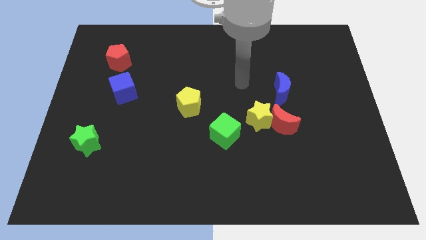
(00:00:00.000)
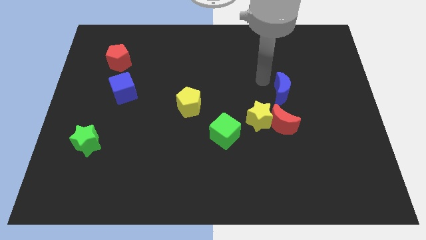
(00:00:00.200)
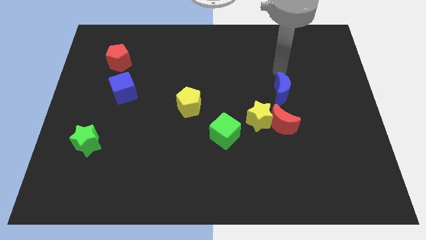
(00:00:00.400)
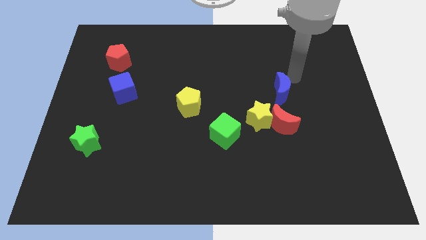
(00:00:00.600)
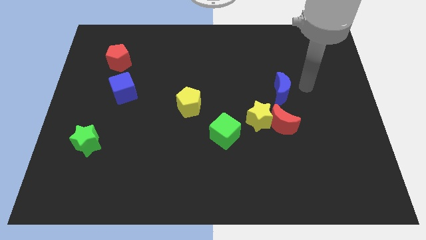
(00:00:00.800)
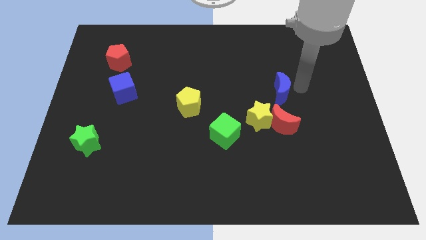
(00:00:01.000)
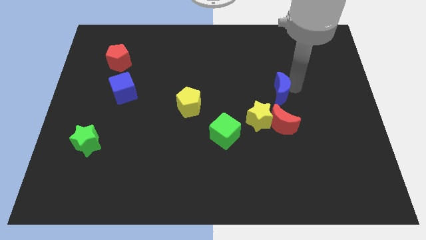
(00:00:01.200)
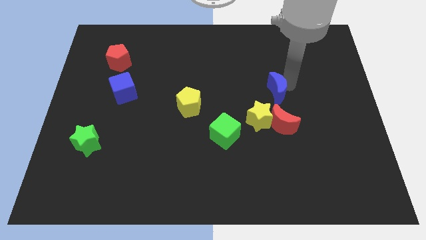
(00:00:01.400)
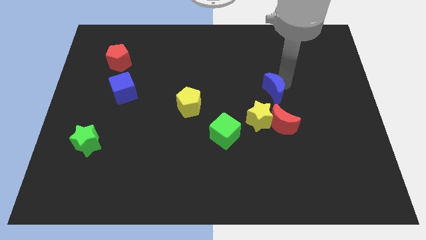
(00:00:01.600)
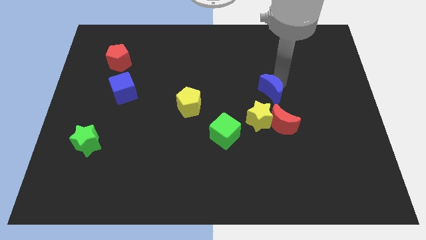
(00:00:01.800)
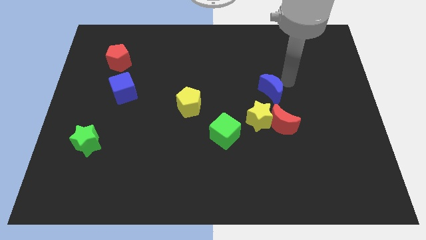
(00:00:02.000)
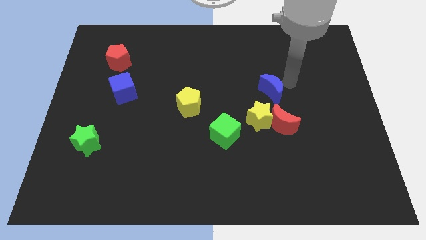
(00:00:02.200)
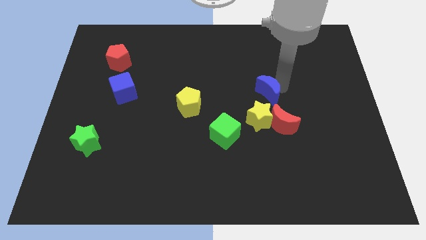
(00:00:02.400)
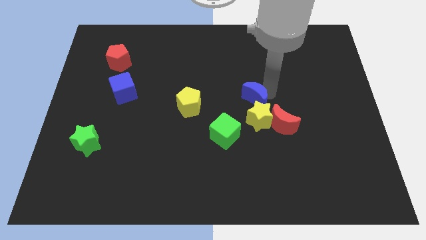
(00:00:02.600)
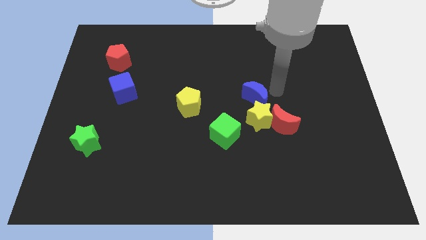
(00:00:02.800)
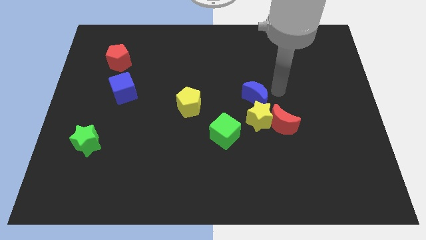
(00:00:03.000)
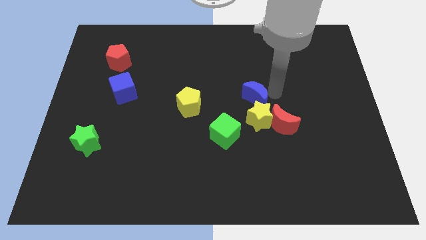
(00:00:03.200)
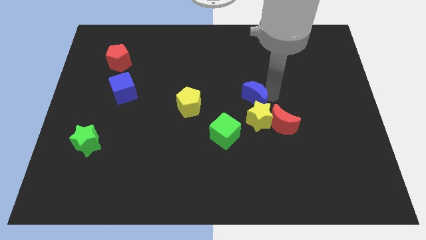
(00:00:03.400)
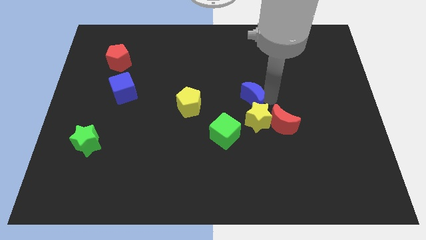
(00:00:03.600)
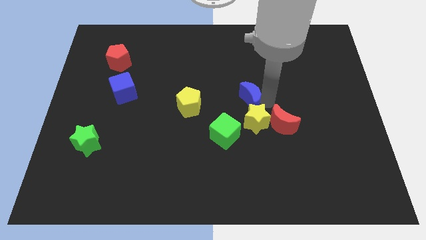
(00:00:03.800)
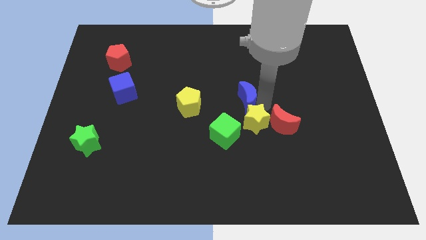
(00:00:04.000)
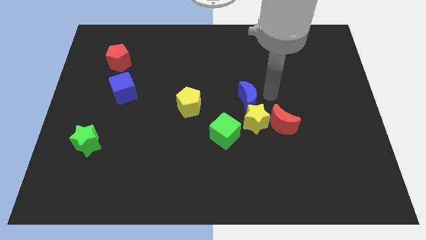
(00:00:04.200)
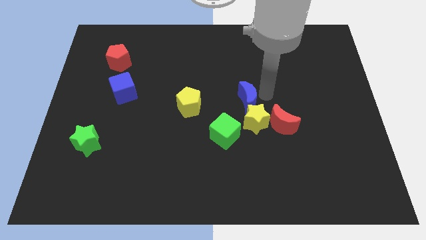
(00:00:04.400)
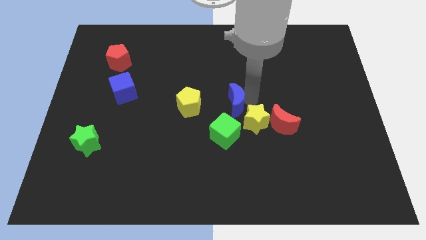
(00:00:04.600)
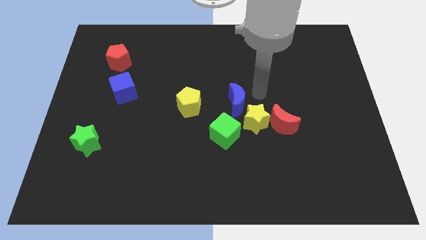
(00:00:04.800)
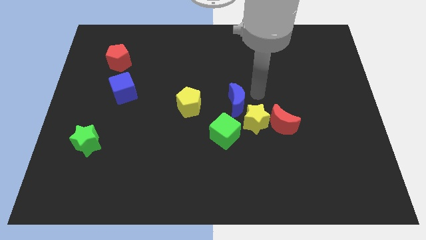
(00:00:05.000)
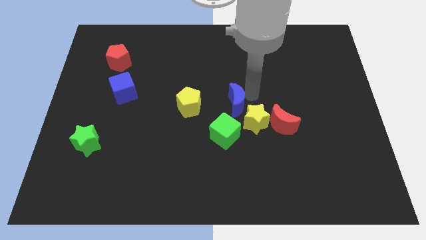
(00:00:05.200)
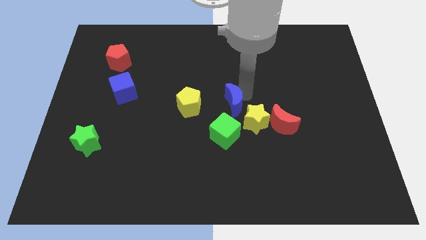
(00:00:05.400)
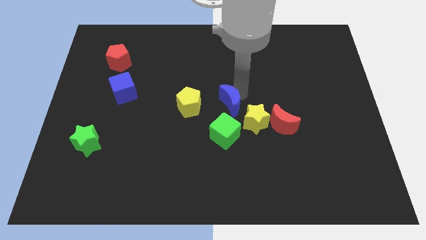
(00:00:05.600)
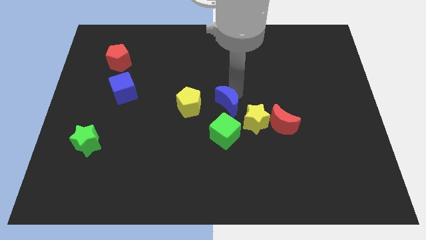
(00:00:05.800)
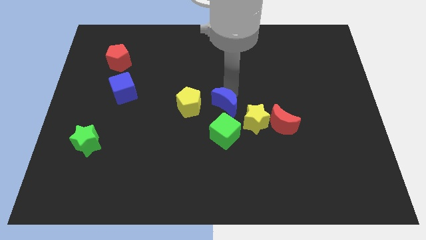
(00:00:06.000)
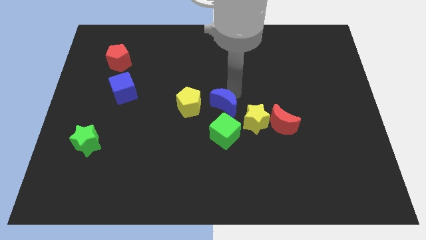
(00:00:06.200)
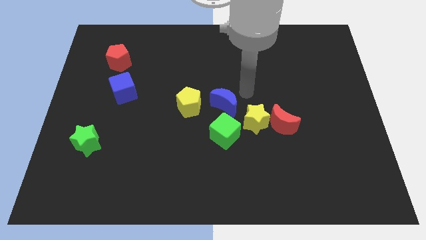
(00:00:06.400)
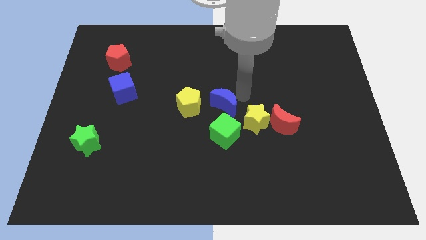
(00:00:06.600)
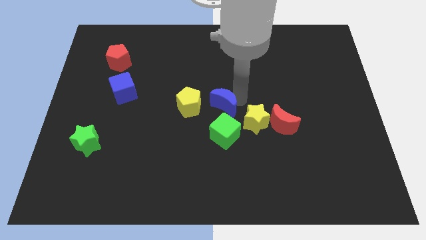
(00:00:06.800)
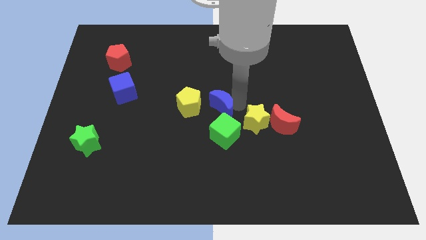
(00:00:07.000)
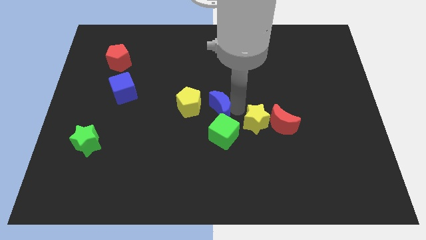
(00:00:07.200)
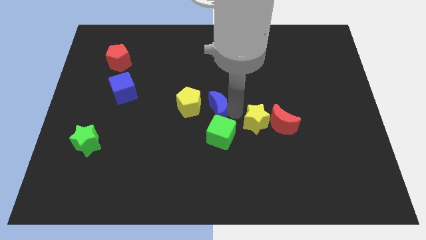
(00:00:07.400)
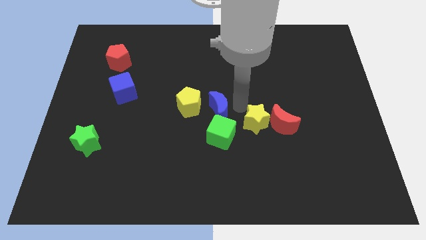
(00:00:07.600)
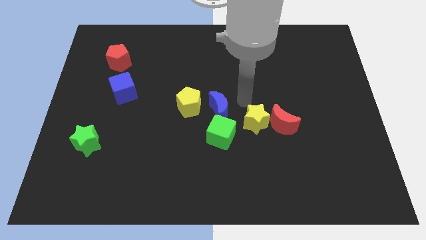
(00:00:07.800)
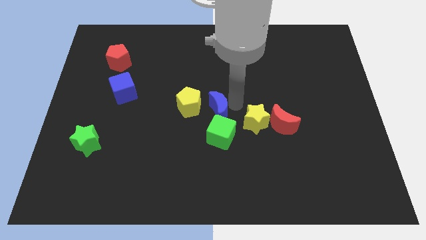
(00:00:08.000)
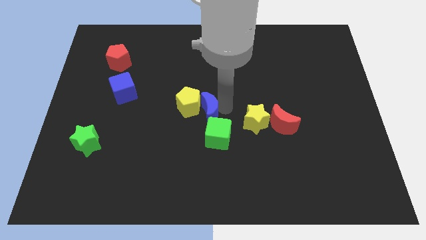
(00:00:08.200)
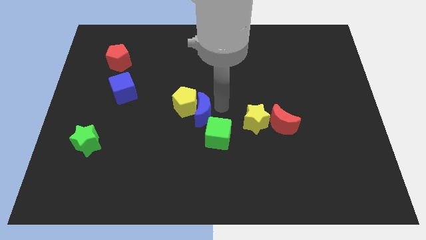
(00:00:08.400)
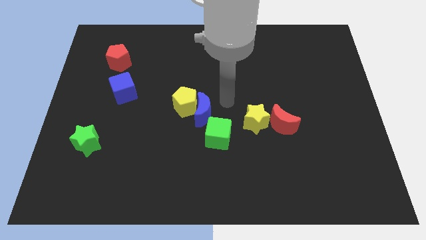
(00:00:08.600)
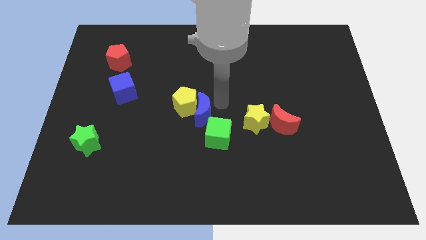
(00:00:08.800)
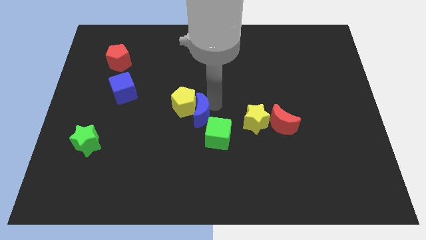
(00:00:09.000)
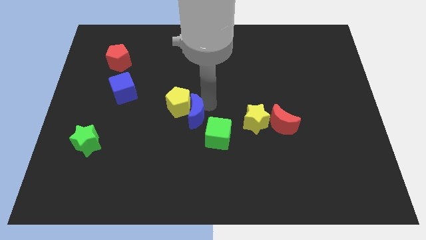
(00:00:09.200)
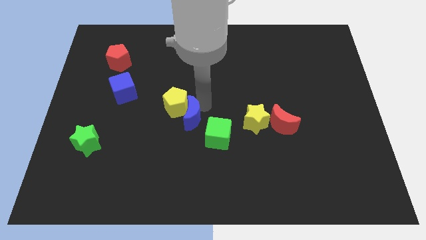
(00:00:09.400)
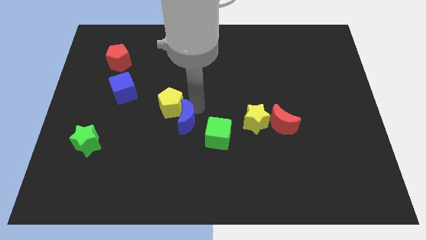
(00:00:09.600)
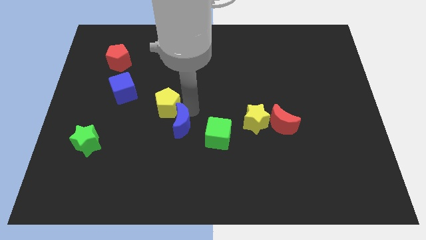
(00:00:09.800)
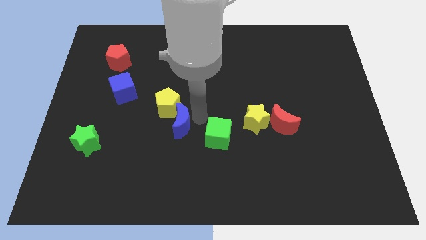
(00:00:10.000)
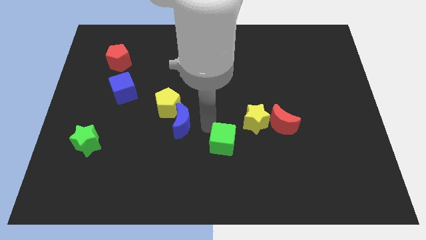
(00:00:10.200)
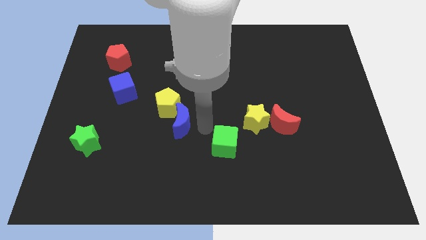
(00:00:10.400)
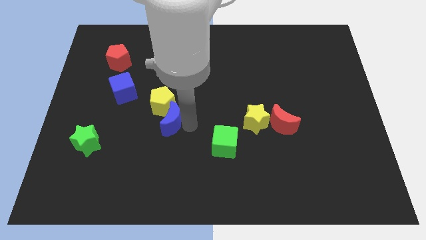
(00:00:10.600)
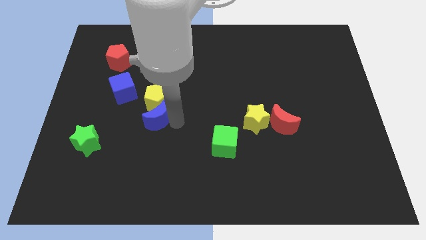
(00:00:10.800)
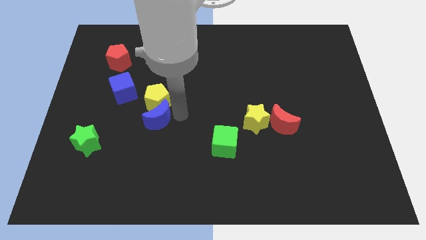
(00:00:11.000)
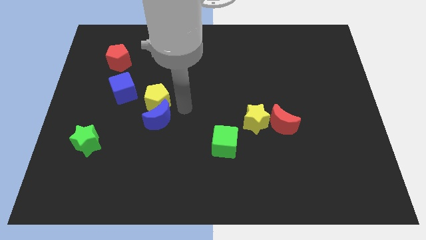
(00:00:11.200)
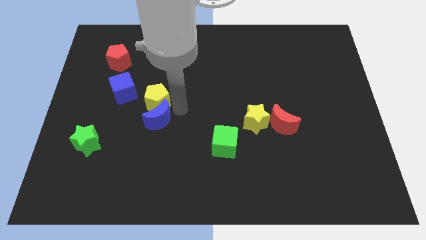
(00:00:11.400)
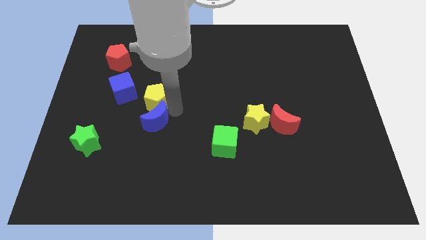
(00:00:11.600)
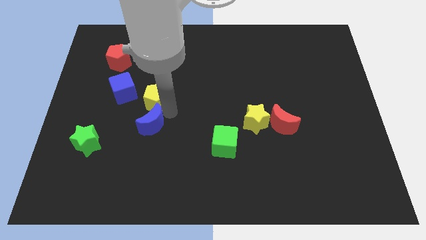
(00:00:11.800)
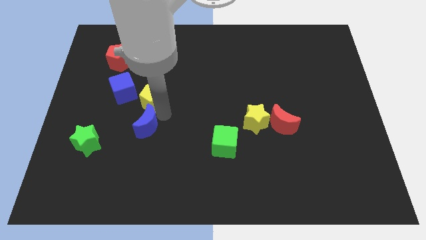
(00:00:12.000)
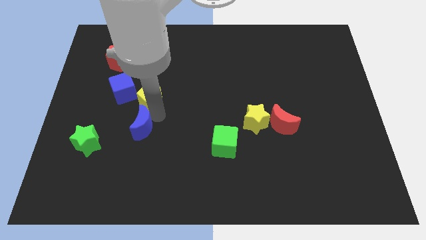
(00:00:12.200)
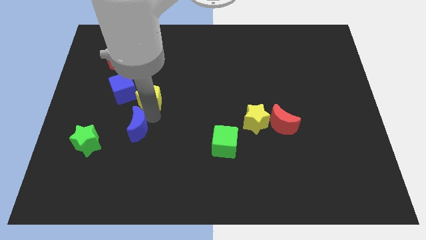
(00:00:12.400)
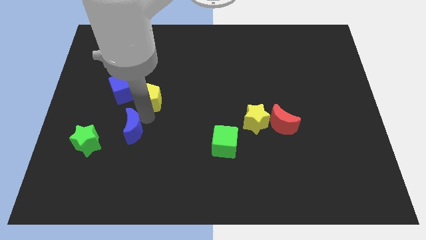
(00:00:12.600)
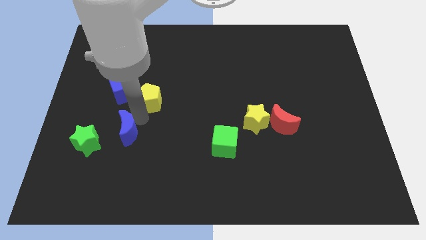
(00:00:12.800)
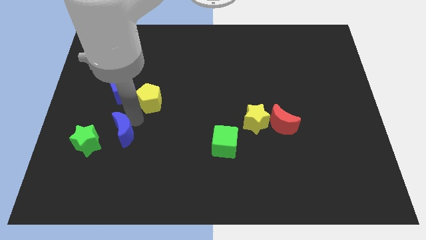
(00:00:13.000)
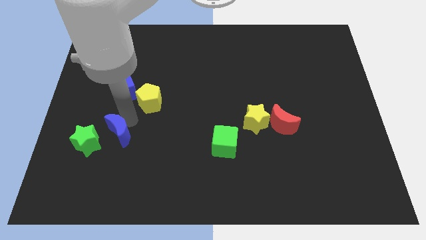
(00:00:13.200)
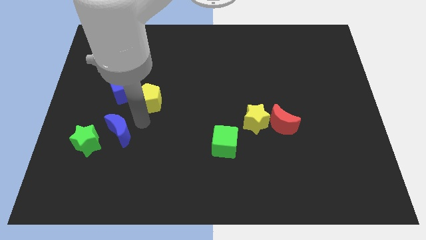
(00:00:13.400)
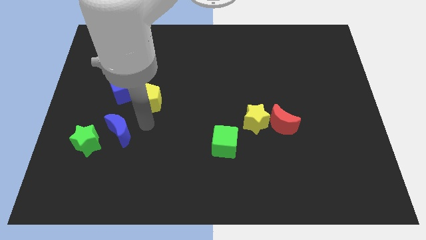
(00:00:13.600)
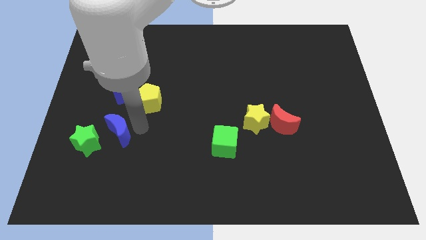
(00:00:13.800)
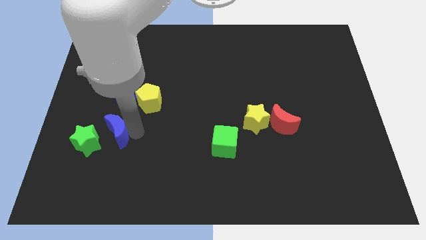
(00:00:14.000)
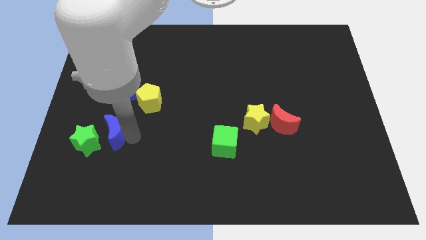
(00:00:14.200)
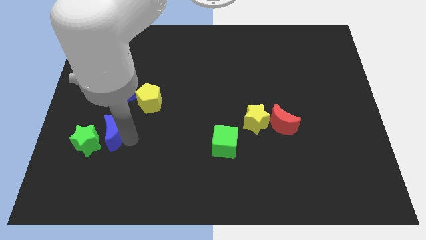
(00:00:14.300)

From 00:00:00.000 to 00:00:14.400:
move the blue moon to the green star
